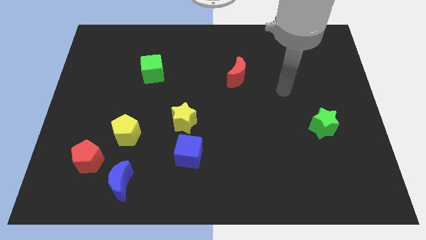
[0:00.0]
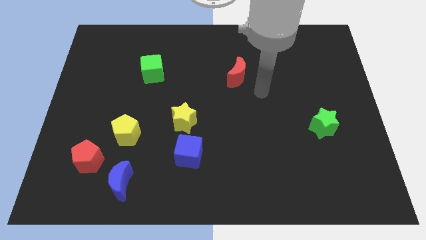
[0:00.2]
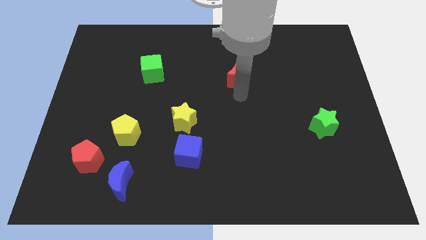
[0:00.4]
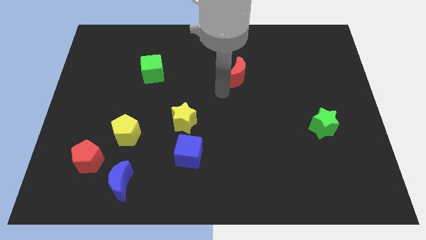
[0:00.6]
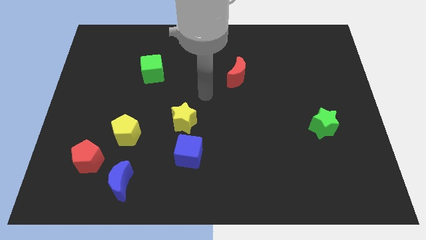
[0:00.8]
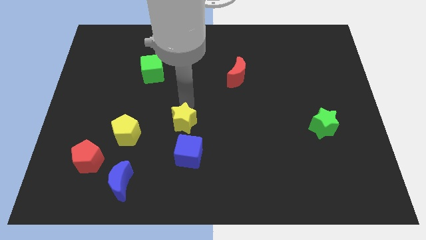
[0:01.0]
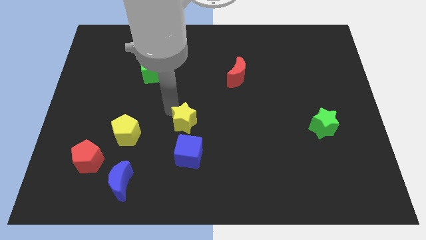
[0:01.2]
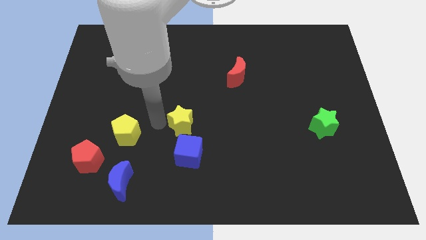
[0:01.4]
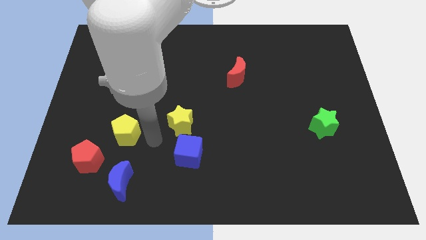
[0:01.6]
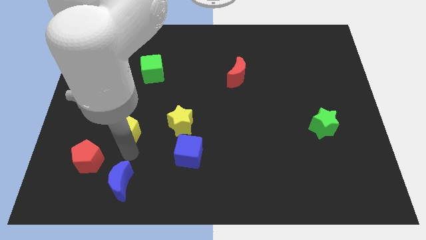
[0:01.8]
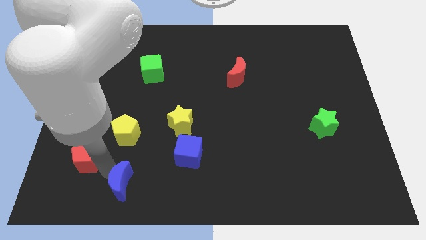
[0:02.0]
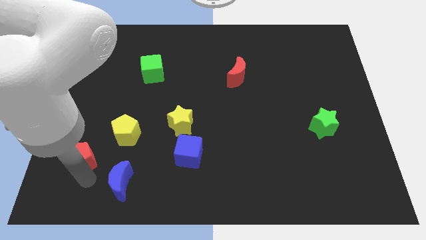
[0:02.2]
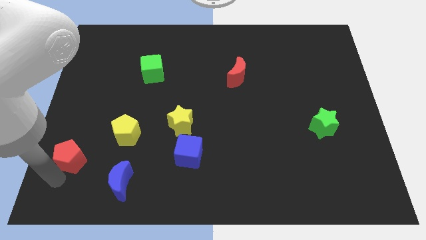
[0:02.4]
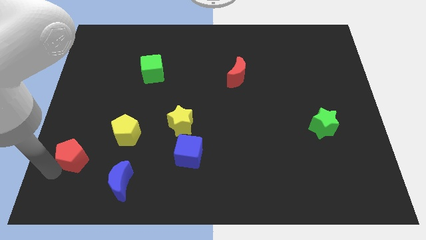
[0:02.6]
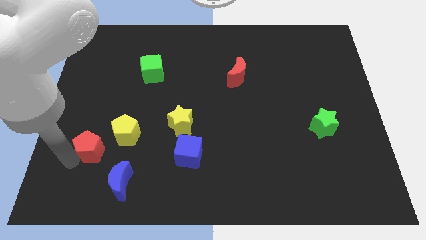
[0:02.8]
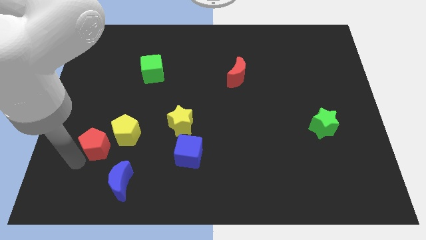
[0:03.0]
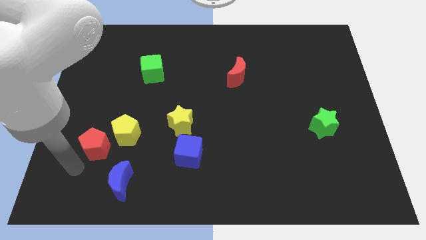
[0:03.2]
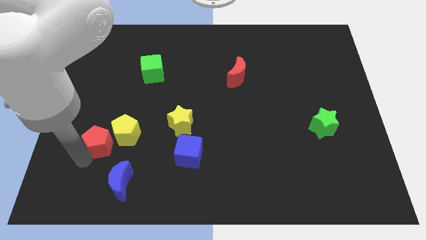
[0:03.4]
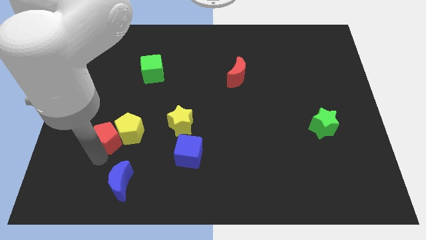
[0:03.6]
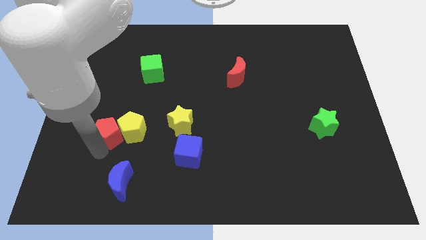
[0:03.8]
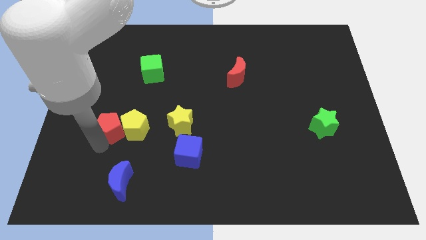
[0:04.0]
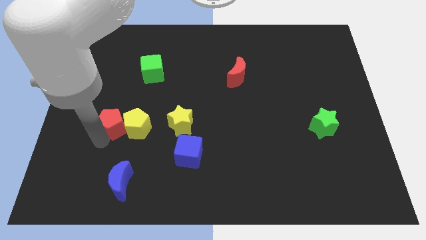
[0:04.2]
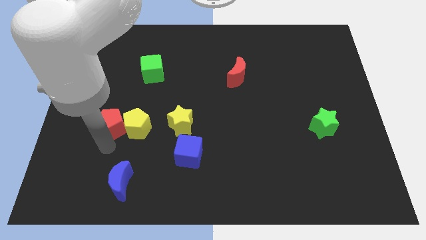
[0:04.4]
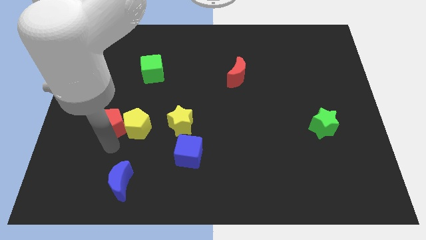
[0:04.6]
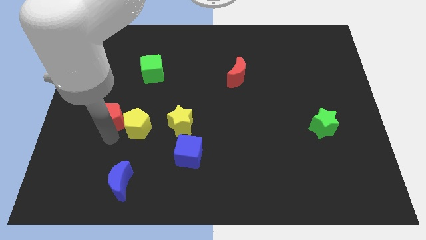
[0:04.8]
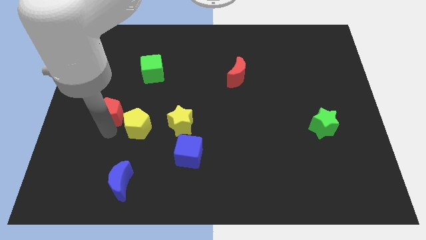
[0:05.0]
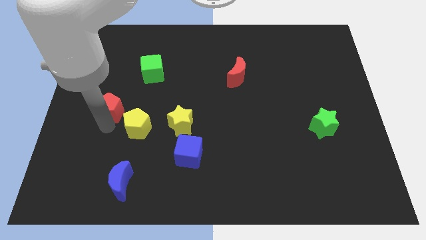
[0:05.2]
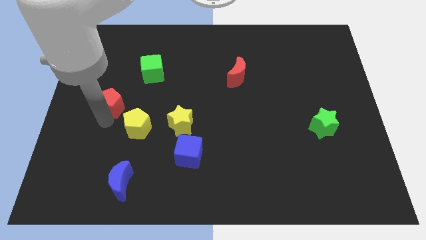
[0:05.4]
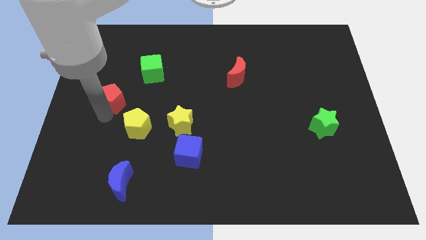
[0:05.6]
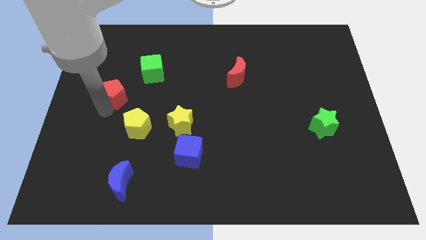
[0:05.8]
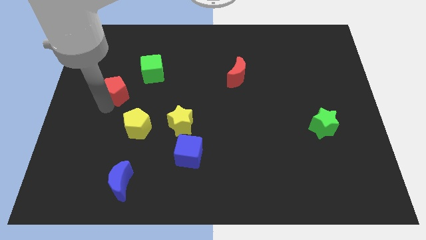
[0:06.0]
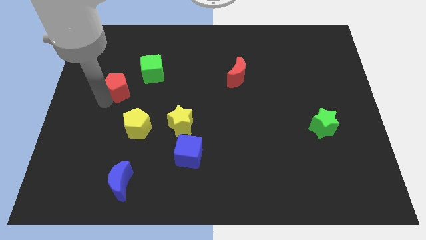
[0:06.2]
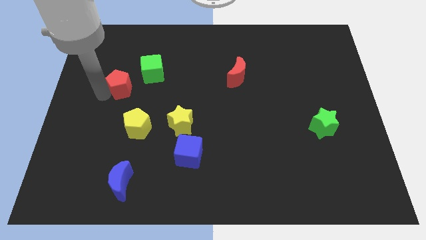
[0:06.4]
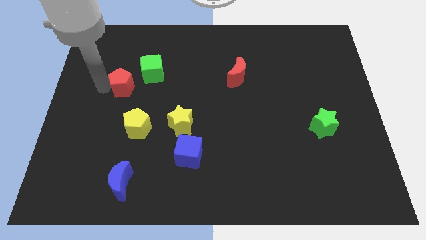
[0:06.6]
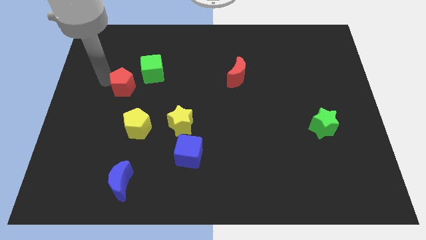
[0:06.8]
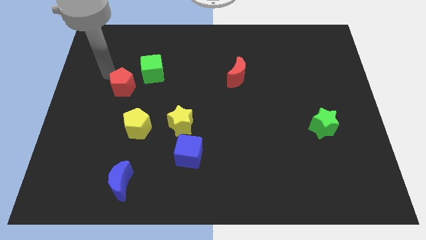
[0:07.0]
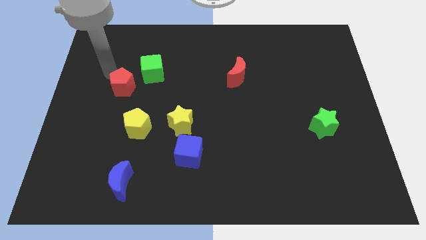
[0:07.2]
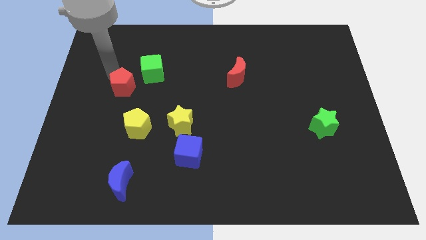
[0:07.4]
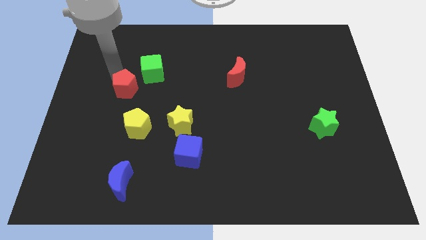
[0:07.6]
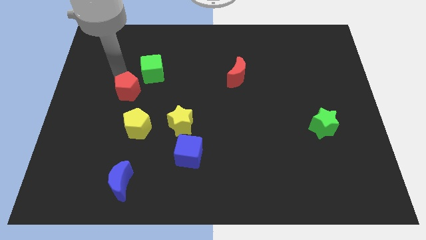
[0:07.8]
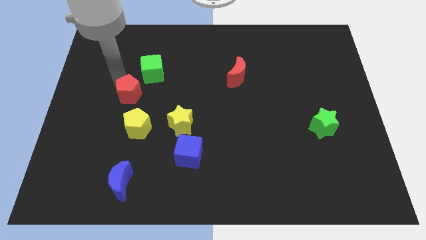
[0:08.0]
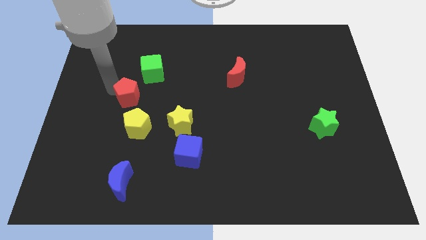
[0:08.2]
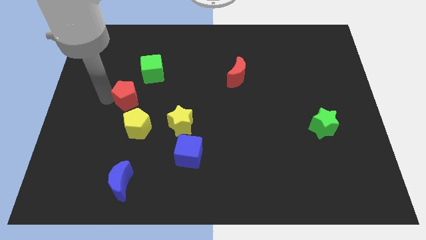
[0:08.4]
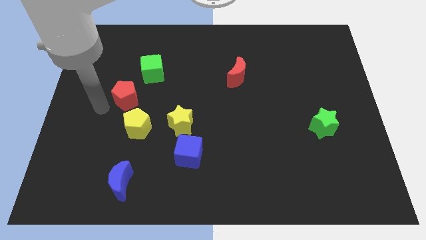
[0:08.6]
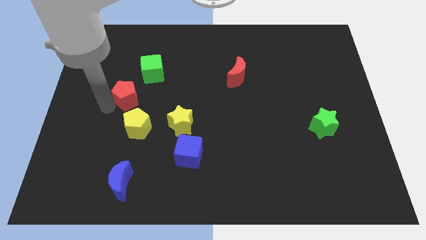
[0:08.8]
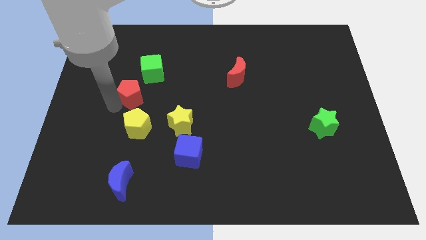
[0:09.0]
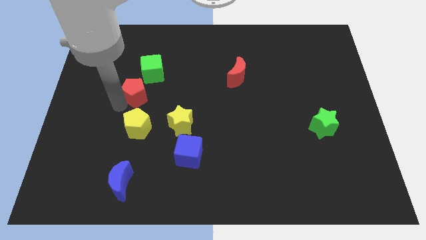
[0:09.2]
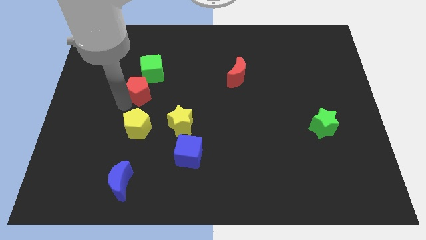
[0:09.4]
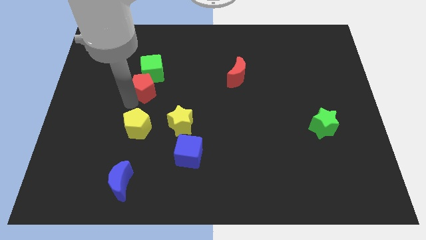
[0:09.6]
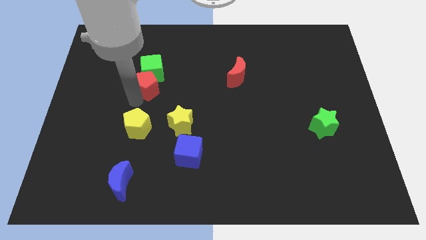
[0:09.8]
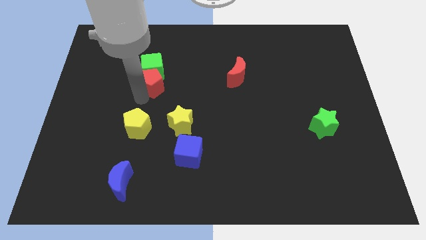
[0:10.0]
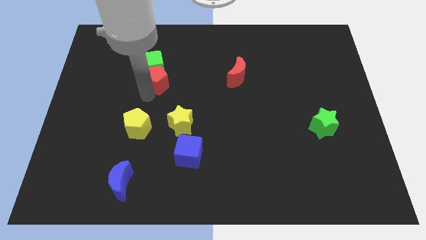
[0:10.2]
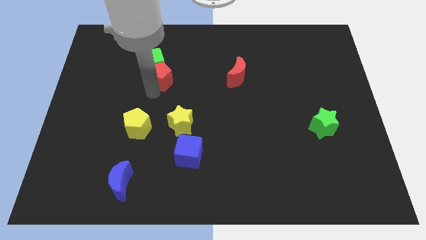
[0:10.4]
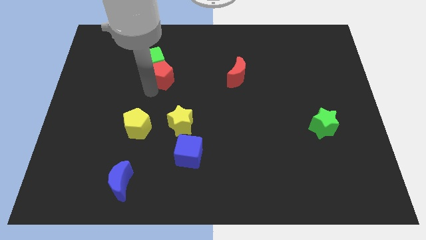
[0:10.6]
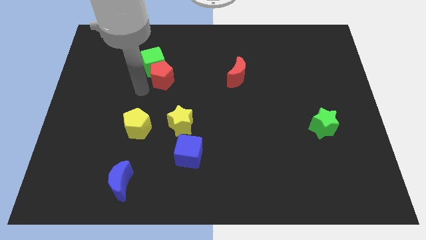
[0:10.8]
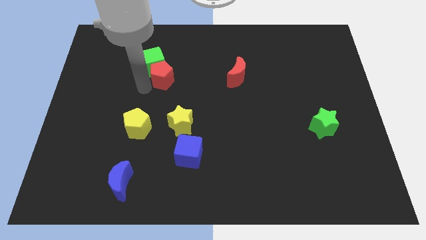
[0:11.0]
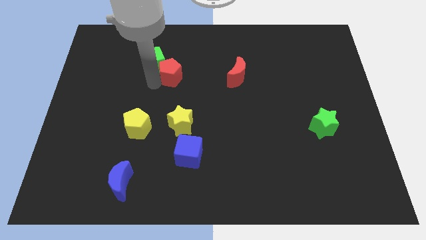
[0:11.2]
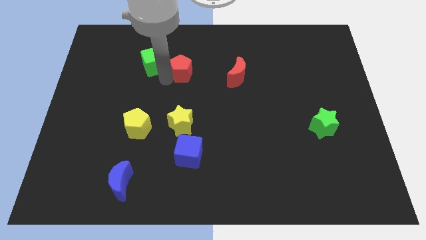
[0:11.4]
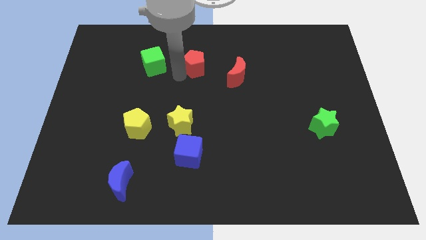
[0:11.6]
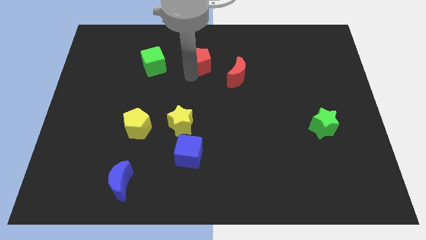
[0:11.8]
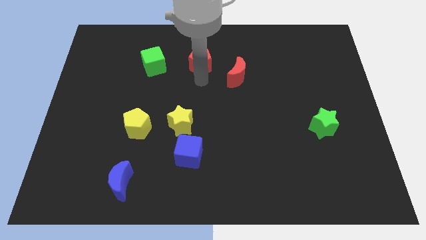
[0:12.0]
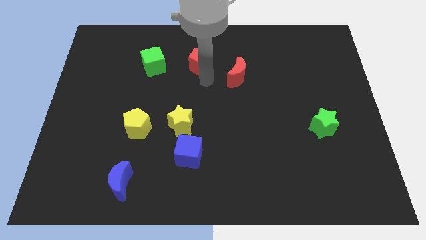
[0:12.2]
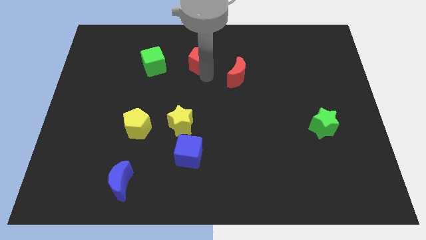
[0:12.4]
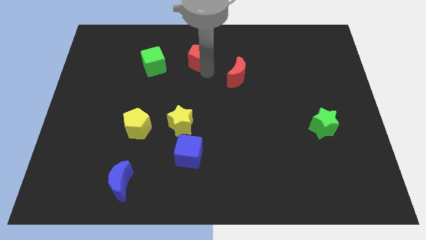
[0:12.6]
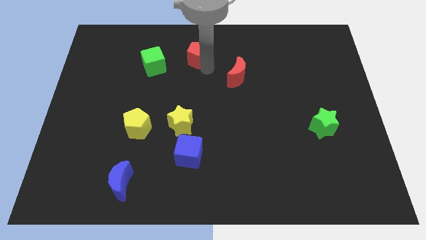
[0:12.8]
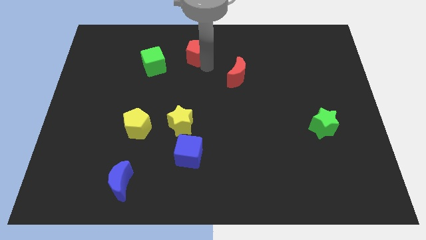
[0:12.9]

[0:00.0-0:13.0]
put the red pentagon to the towards your base

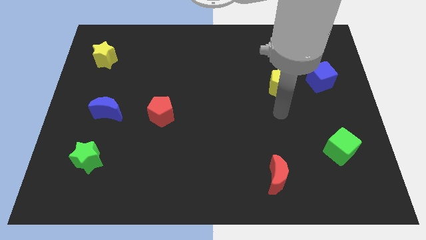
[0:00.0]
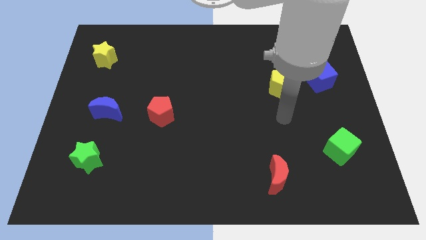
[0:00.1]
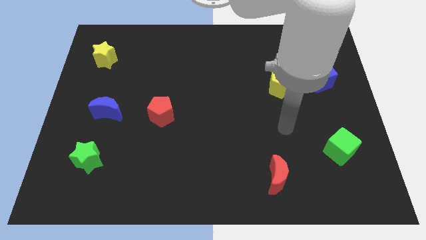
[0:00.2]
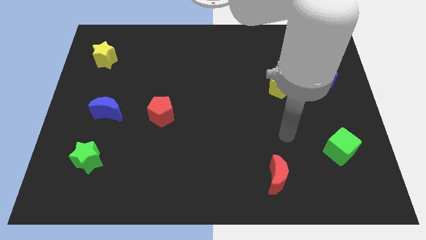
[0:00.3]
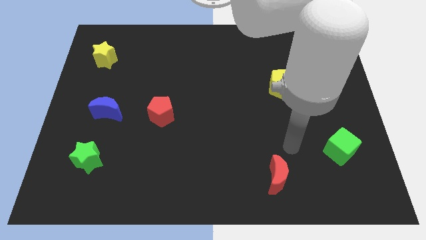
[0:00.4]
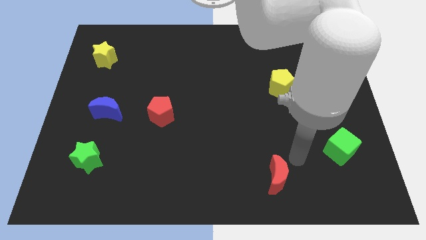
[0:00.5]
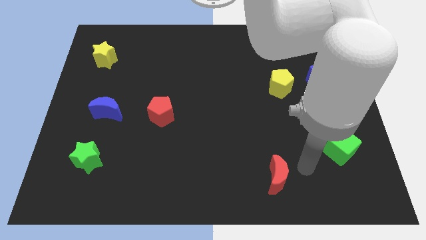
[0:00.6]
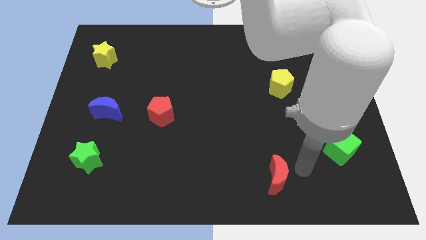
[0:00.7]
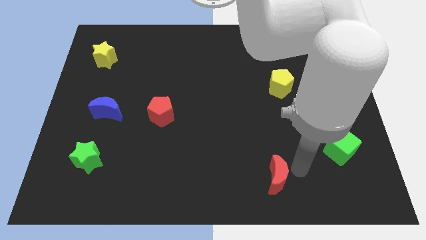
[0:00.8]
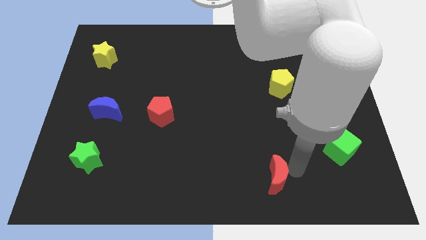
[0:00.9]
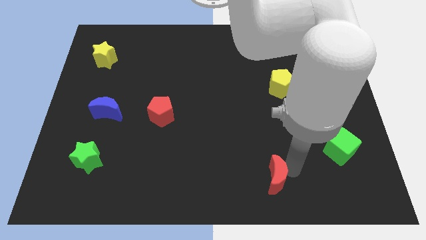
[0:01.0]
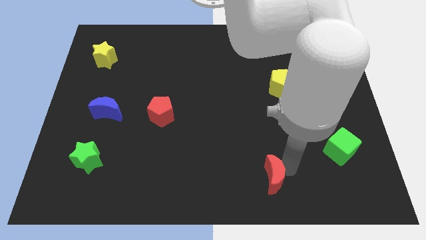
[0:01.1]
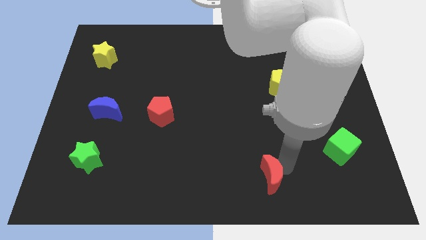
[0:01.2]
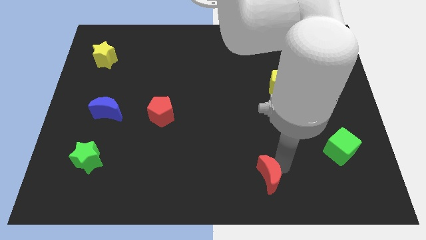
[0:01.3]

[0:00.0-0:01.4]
move the red moon to the bottom side
